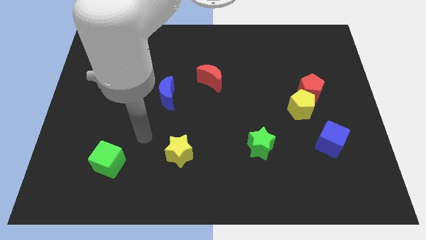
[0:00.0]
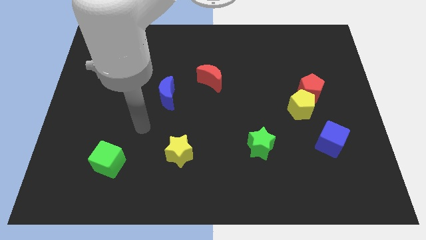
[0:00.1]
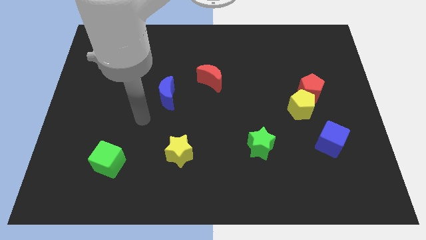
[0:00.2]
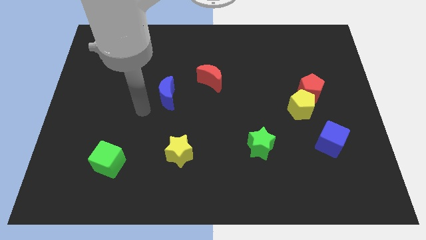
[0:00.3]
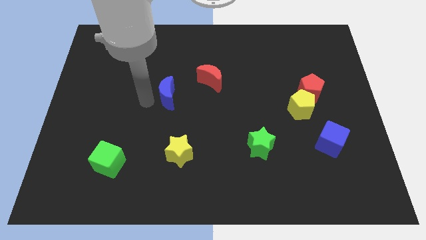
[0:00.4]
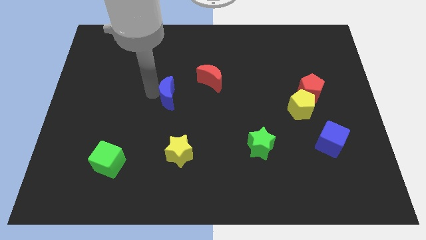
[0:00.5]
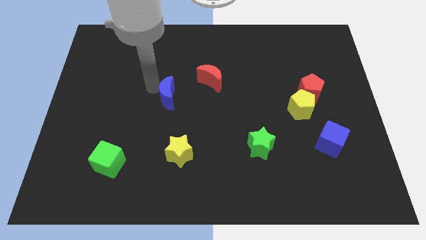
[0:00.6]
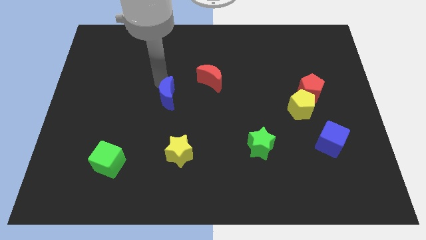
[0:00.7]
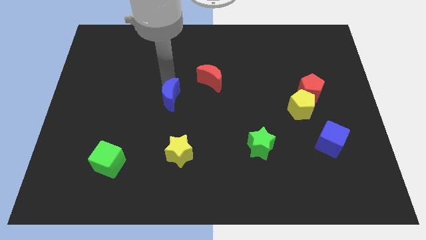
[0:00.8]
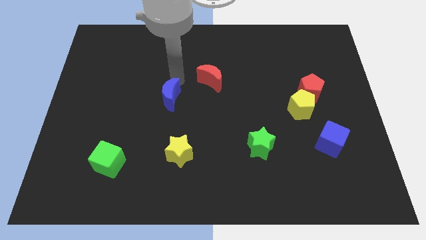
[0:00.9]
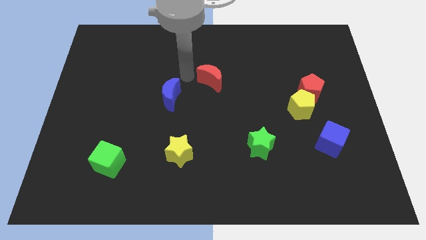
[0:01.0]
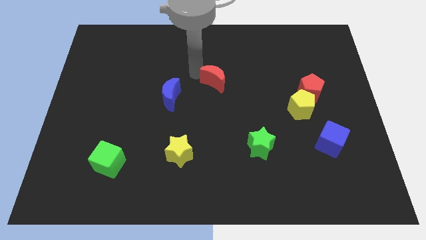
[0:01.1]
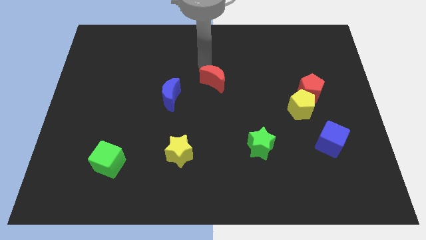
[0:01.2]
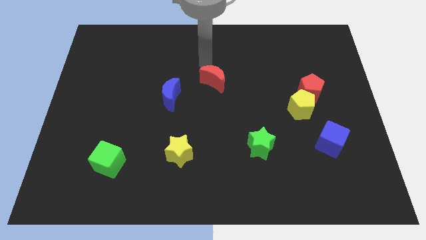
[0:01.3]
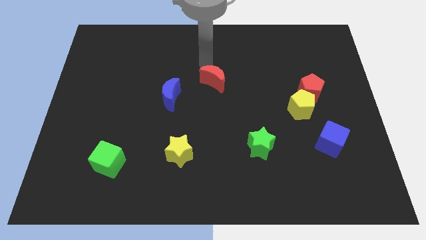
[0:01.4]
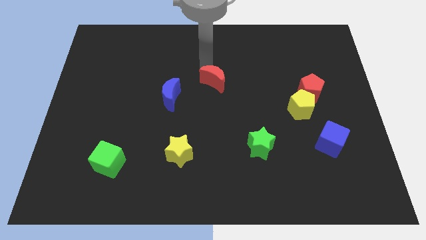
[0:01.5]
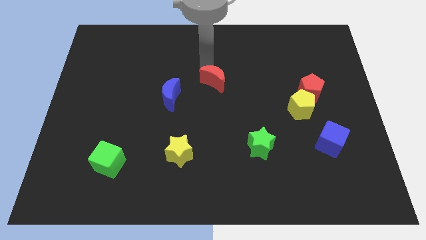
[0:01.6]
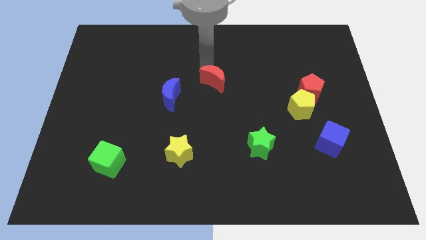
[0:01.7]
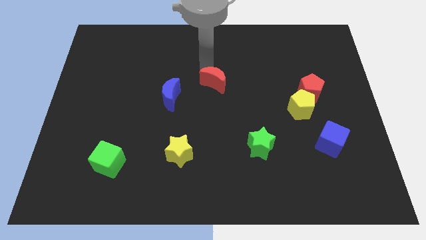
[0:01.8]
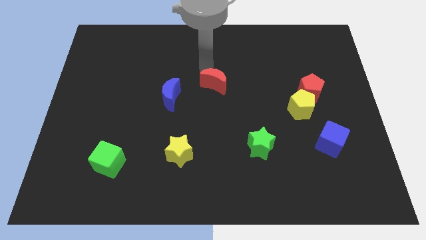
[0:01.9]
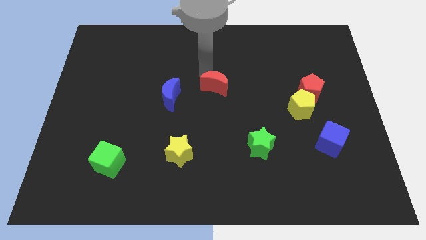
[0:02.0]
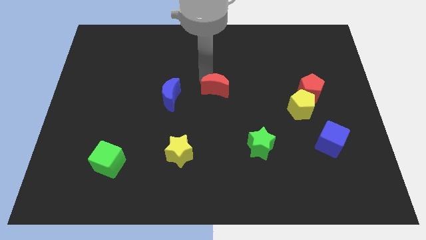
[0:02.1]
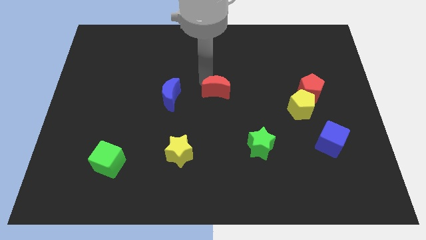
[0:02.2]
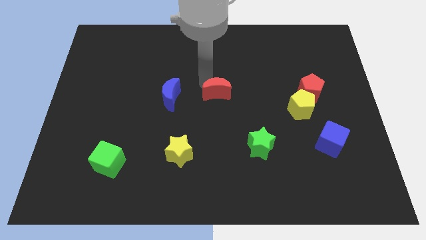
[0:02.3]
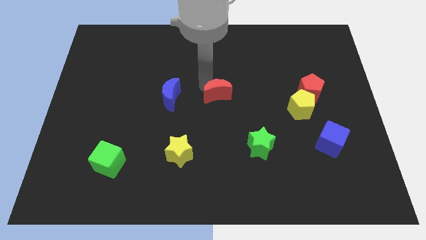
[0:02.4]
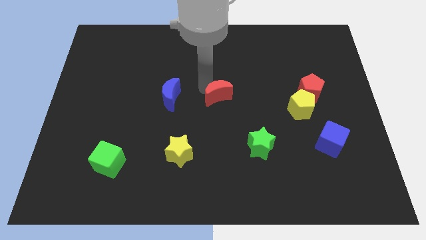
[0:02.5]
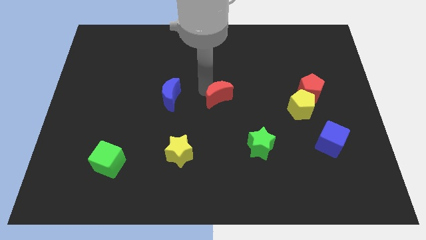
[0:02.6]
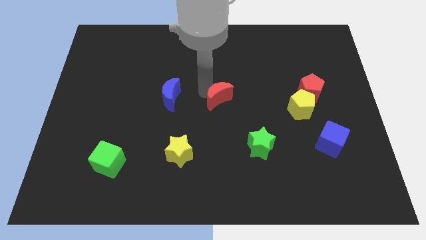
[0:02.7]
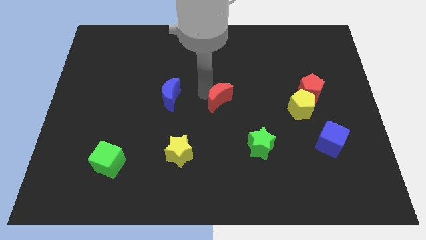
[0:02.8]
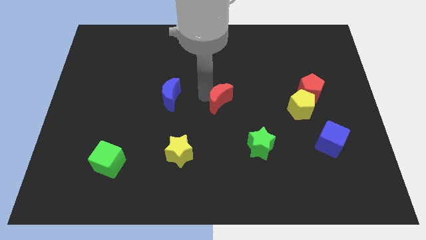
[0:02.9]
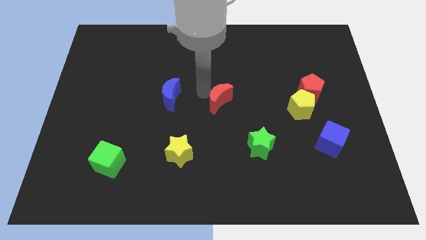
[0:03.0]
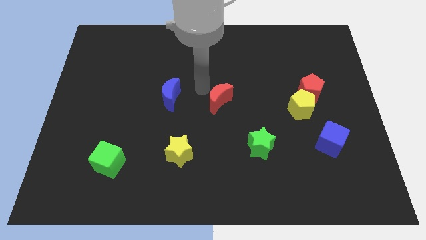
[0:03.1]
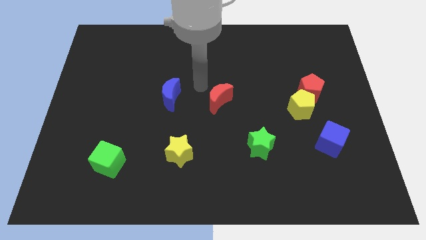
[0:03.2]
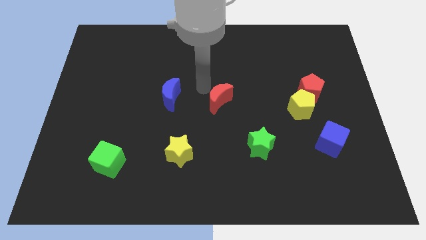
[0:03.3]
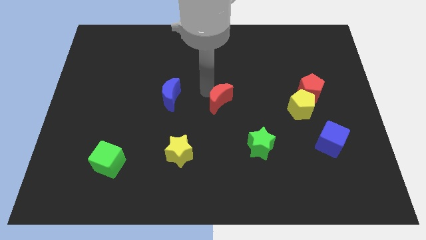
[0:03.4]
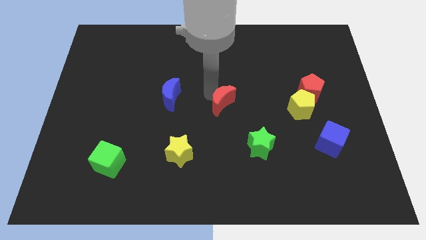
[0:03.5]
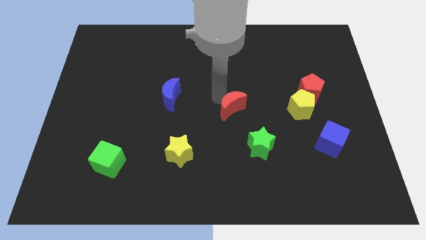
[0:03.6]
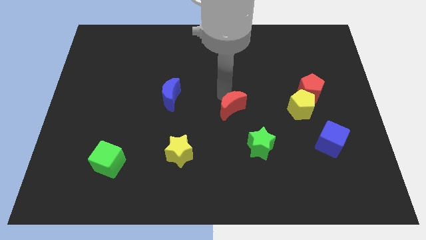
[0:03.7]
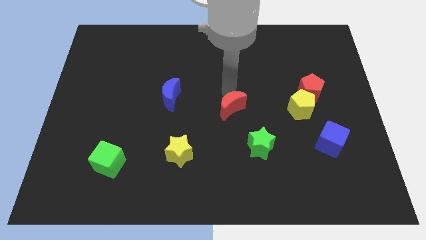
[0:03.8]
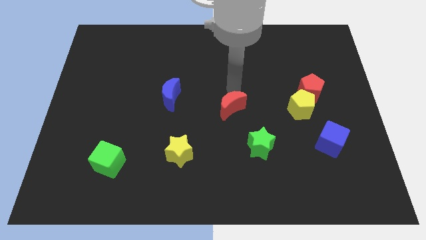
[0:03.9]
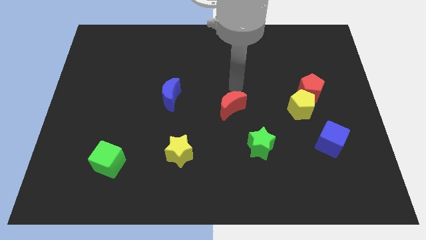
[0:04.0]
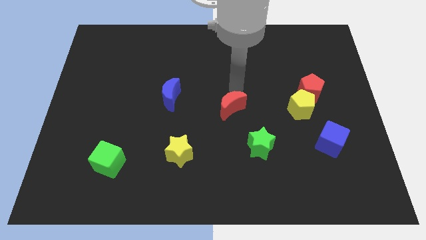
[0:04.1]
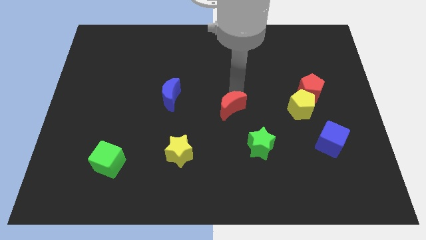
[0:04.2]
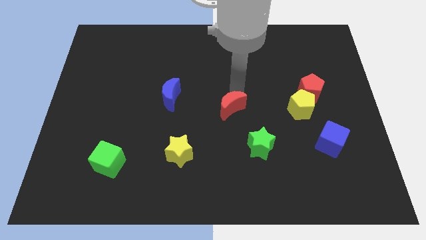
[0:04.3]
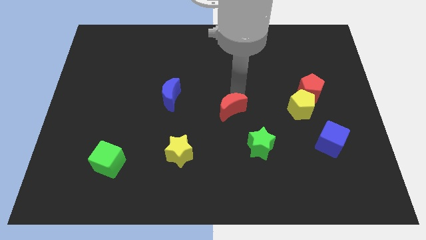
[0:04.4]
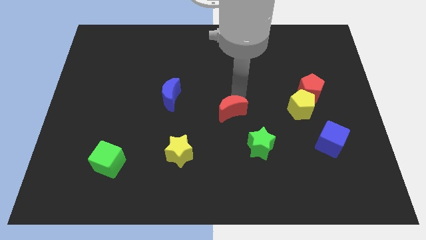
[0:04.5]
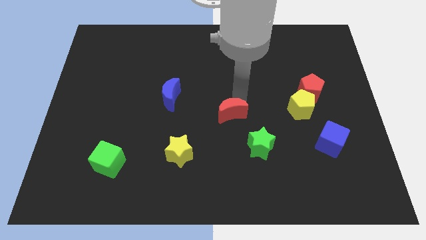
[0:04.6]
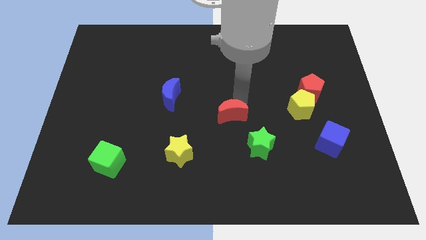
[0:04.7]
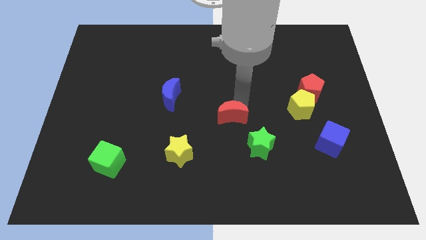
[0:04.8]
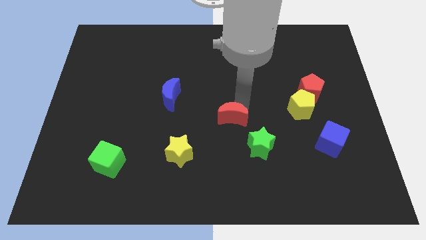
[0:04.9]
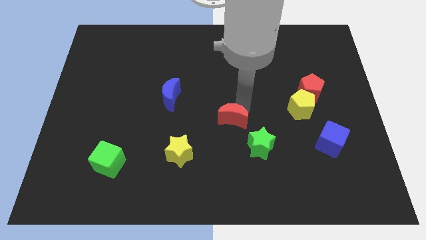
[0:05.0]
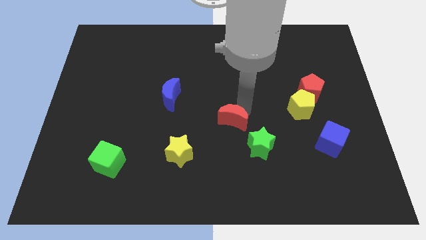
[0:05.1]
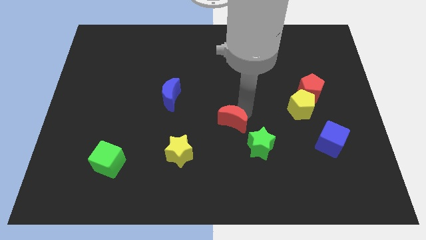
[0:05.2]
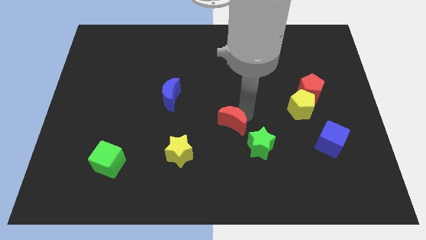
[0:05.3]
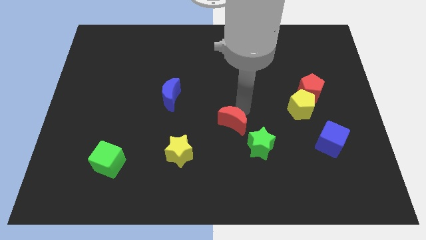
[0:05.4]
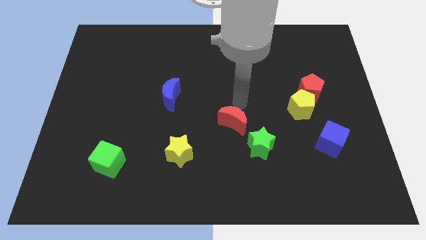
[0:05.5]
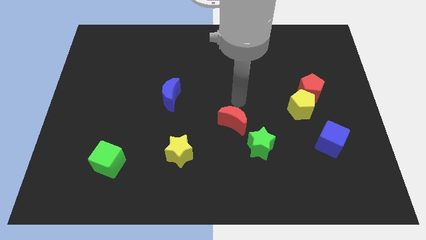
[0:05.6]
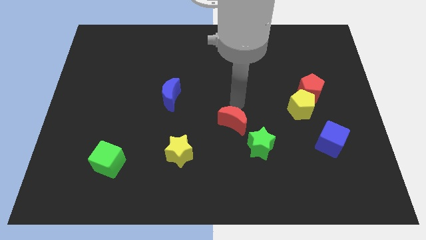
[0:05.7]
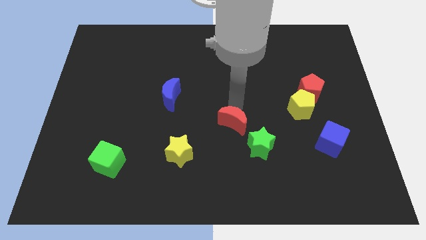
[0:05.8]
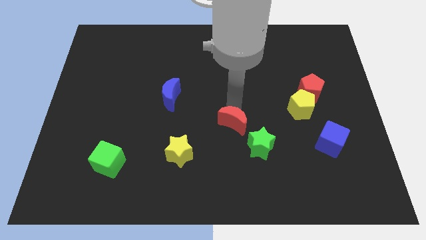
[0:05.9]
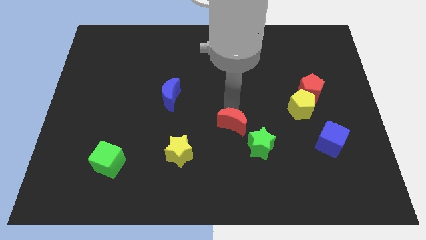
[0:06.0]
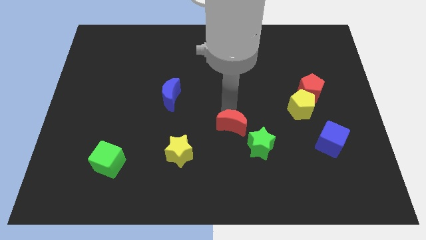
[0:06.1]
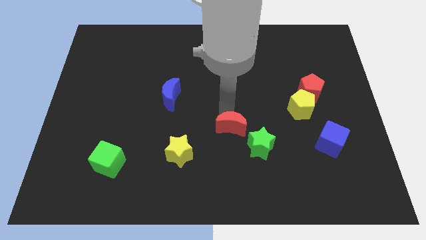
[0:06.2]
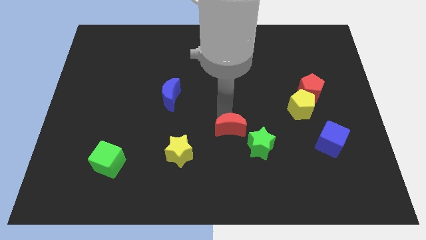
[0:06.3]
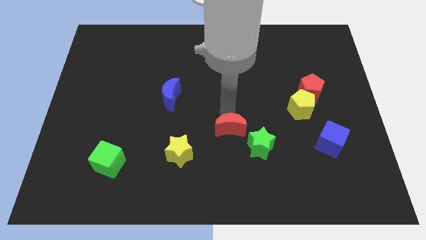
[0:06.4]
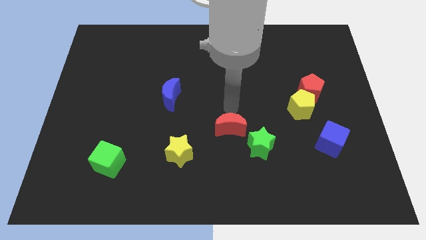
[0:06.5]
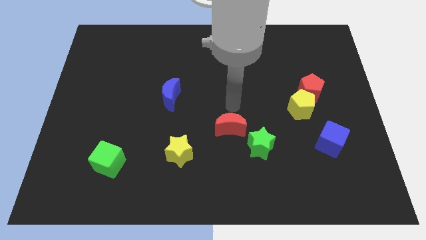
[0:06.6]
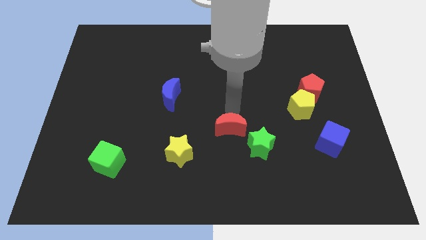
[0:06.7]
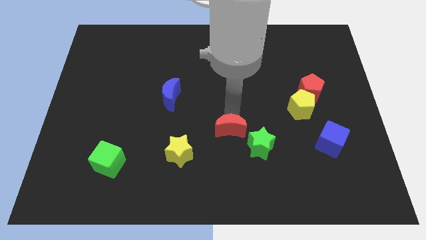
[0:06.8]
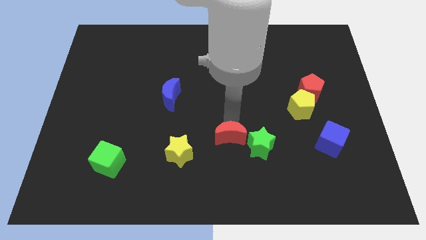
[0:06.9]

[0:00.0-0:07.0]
put the red moon to the right side of the yellow star
